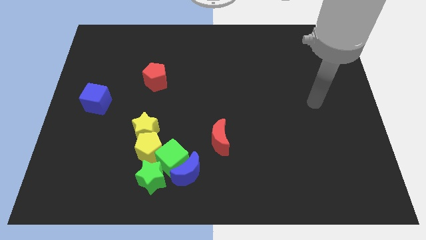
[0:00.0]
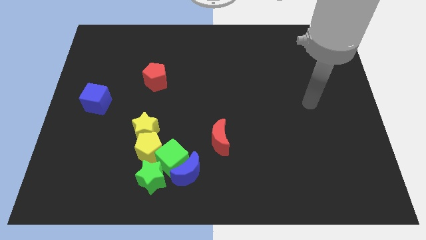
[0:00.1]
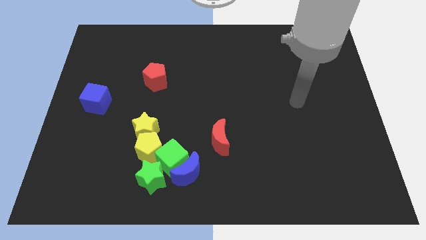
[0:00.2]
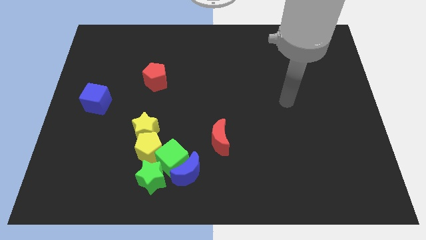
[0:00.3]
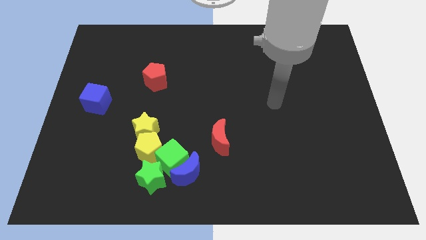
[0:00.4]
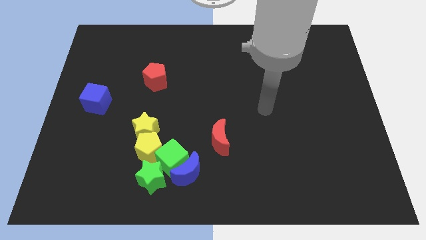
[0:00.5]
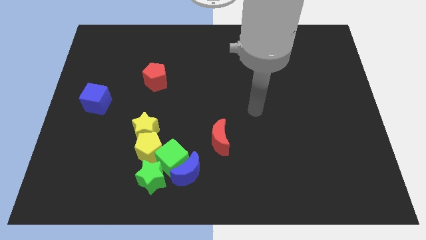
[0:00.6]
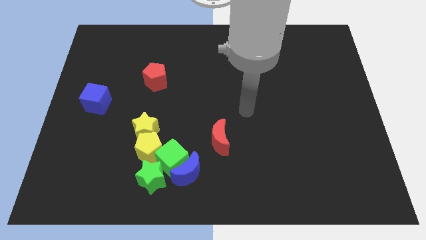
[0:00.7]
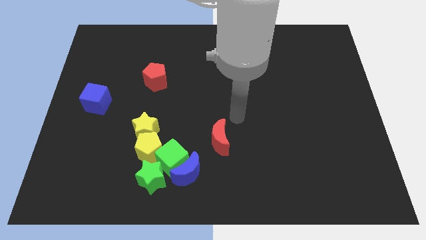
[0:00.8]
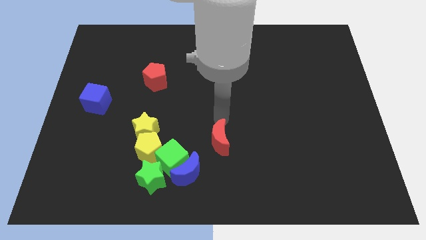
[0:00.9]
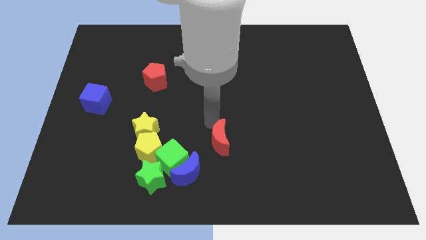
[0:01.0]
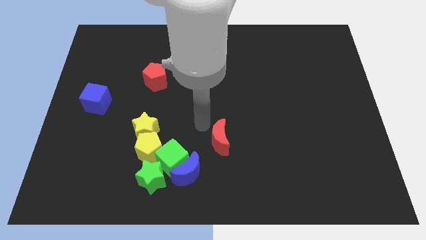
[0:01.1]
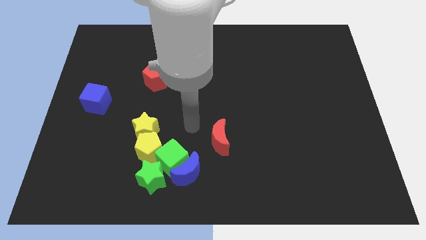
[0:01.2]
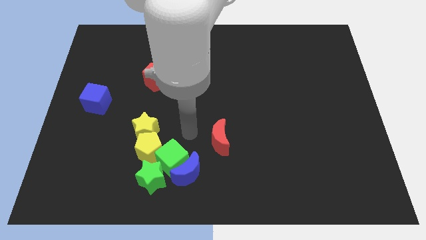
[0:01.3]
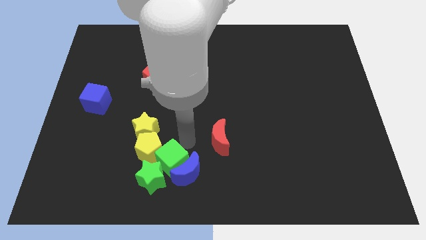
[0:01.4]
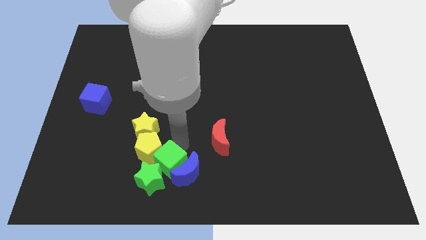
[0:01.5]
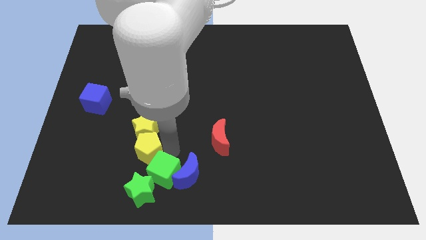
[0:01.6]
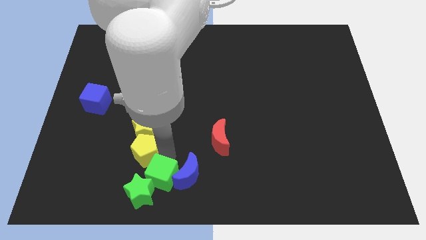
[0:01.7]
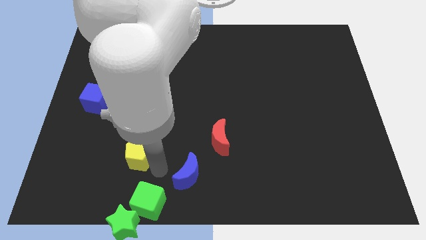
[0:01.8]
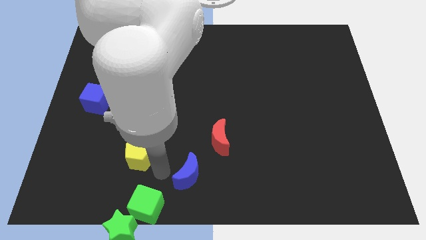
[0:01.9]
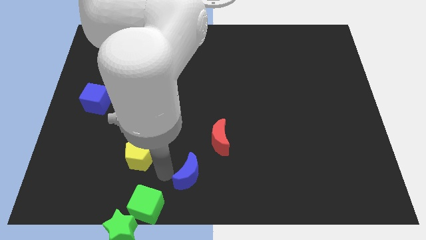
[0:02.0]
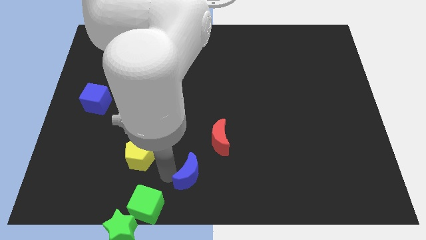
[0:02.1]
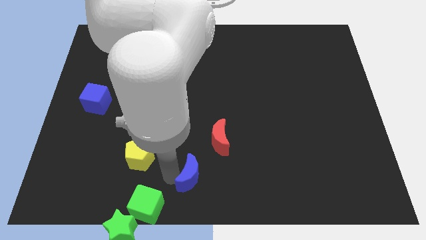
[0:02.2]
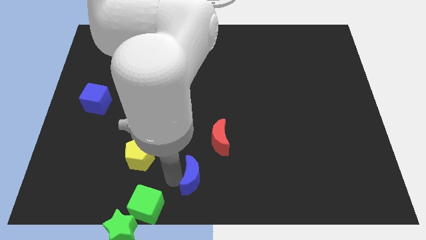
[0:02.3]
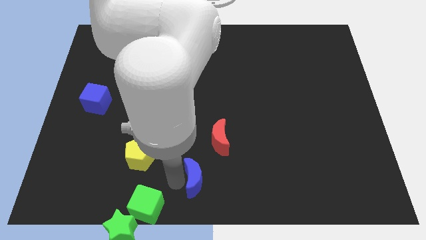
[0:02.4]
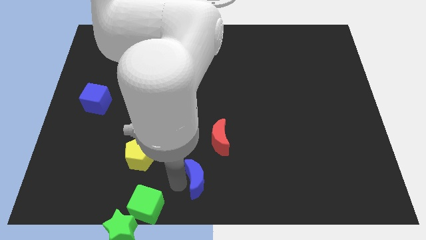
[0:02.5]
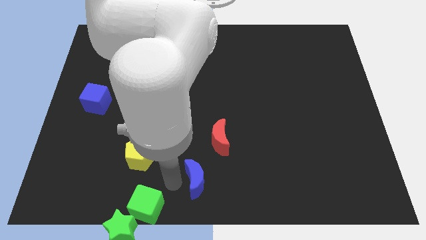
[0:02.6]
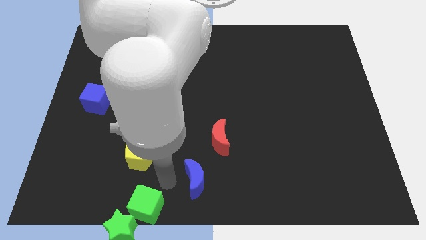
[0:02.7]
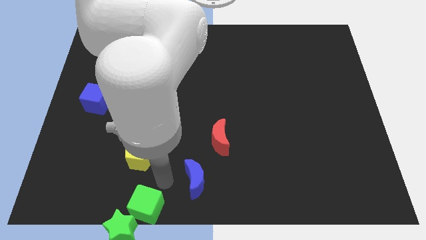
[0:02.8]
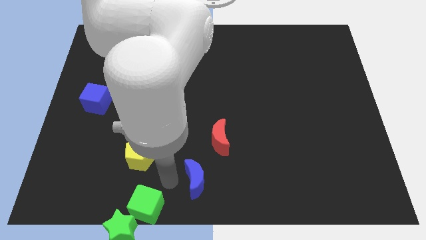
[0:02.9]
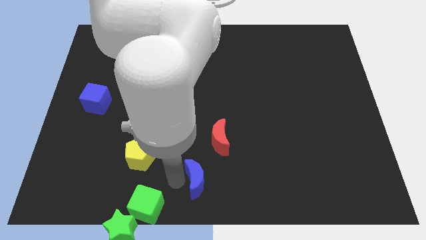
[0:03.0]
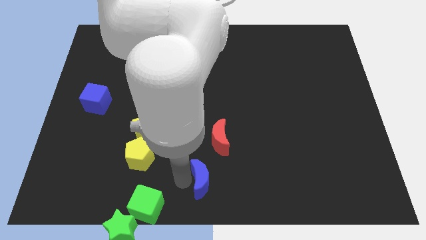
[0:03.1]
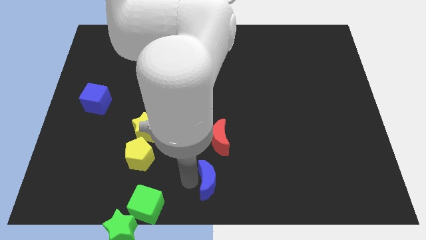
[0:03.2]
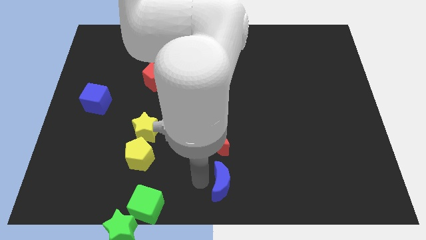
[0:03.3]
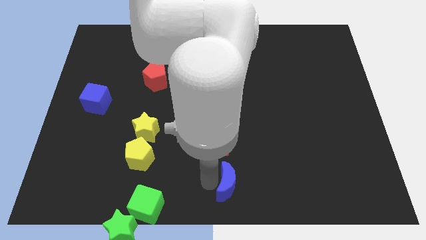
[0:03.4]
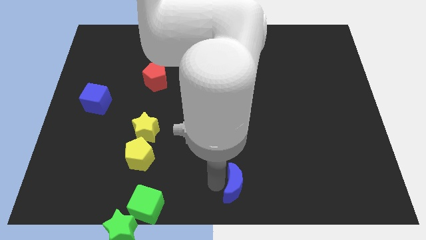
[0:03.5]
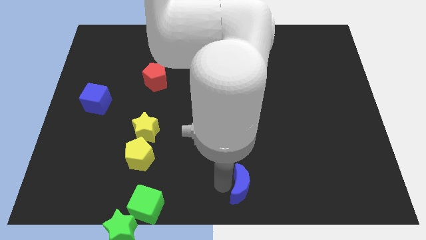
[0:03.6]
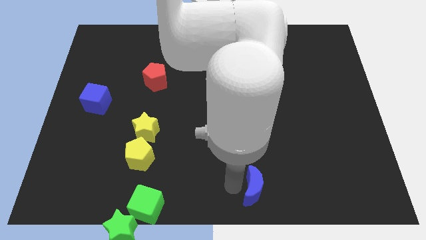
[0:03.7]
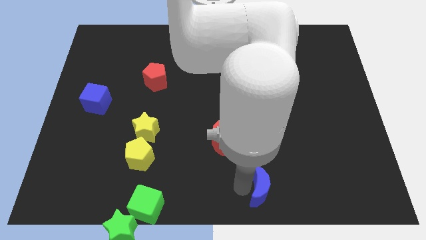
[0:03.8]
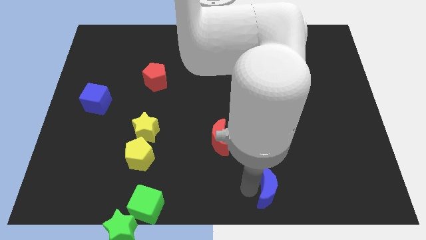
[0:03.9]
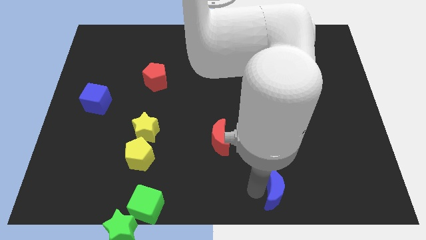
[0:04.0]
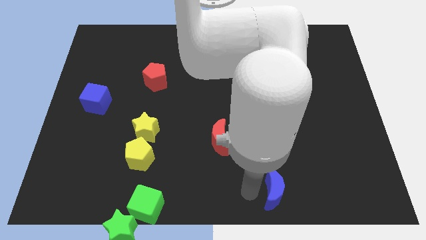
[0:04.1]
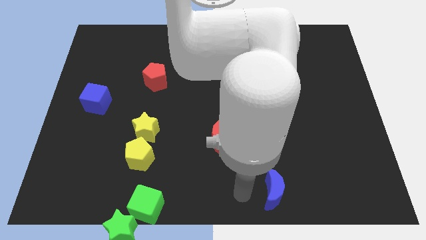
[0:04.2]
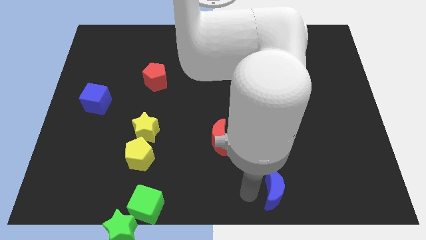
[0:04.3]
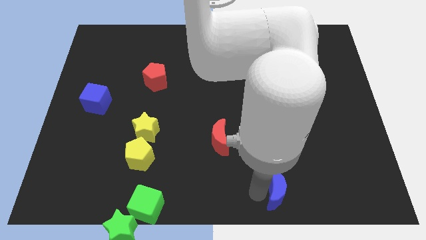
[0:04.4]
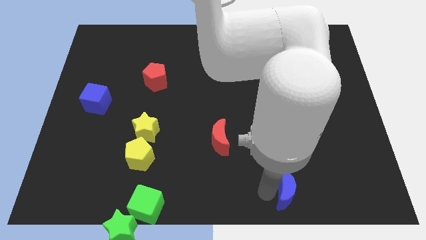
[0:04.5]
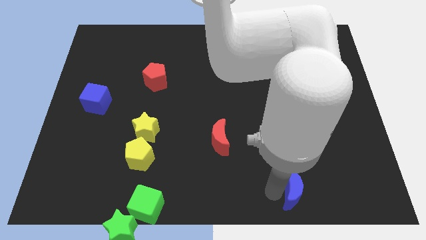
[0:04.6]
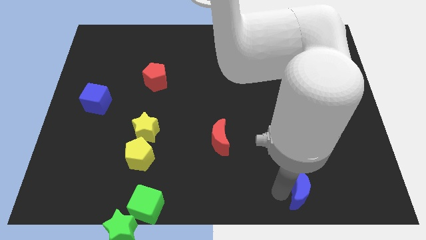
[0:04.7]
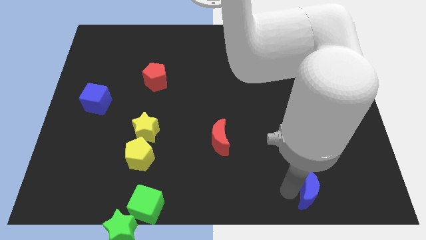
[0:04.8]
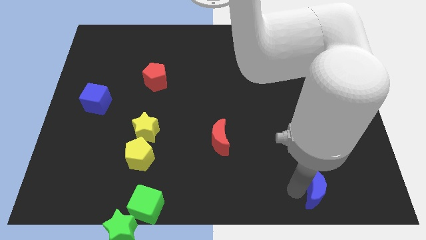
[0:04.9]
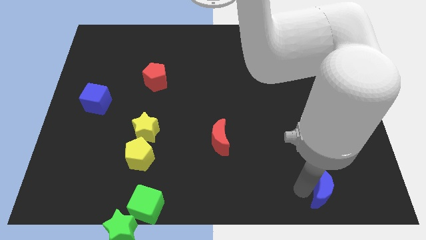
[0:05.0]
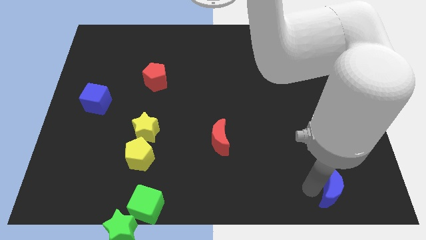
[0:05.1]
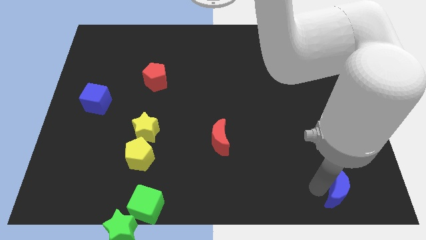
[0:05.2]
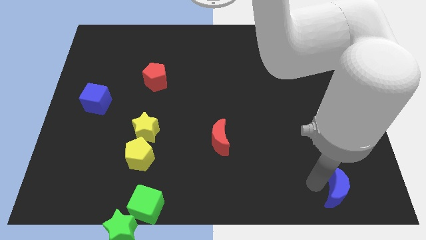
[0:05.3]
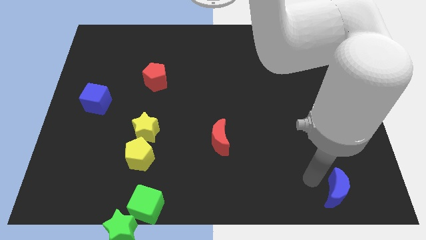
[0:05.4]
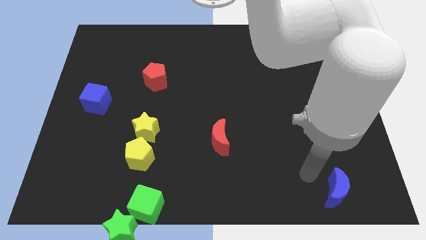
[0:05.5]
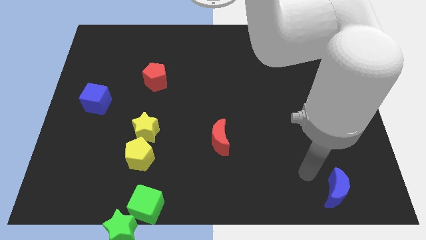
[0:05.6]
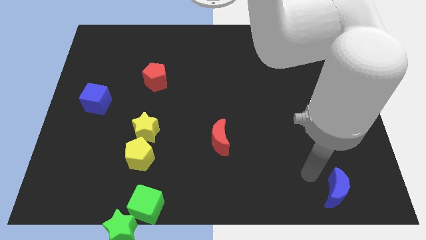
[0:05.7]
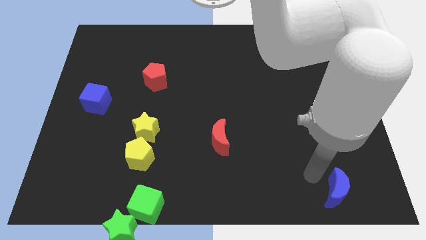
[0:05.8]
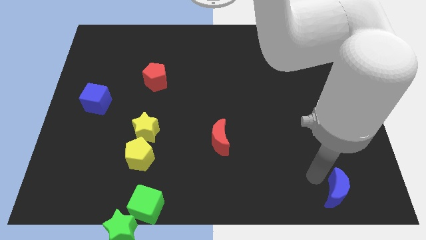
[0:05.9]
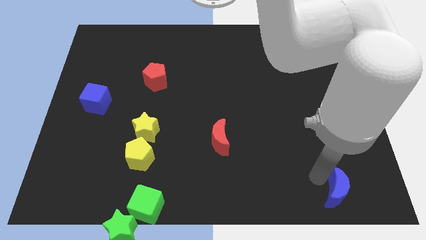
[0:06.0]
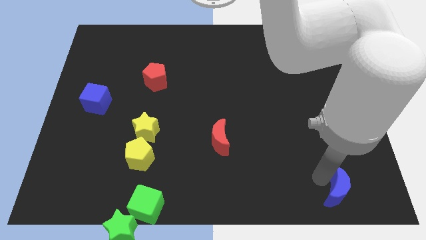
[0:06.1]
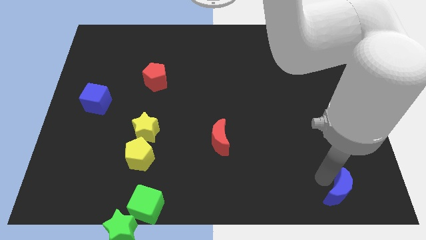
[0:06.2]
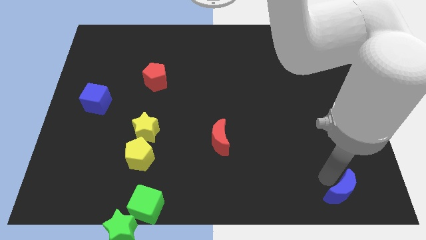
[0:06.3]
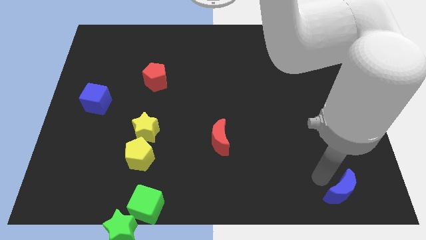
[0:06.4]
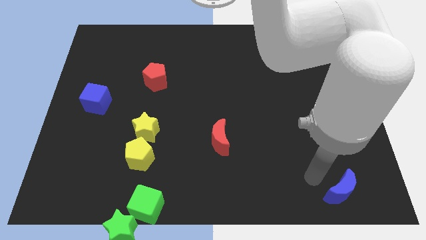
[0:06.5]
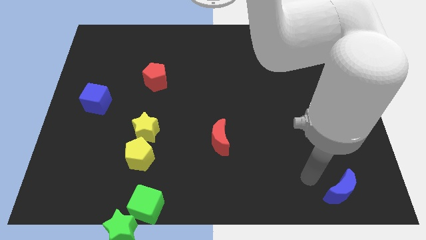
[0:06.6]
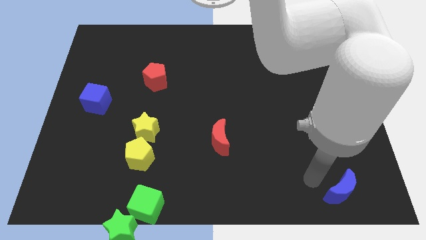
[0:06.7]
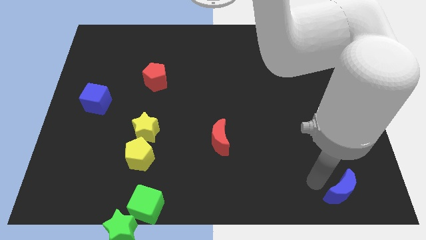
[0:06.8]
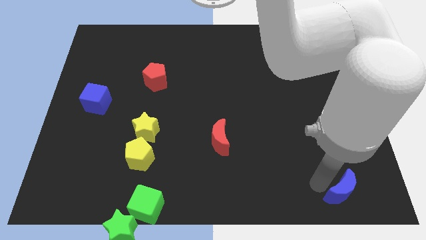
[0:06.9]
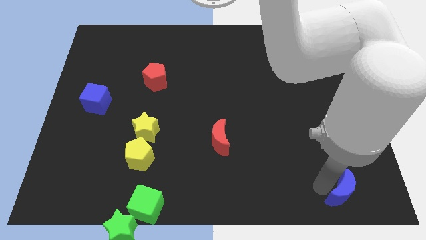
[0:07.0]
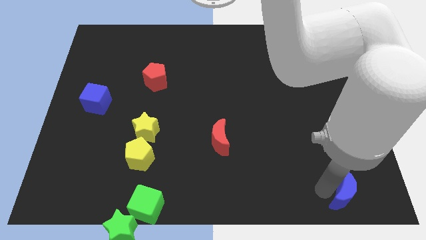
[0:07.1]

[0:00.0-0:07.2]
push the blue moon to the bottom right of the board

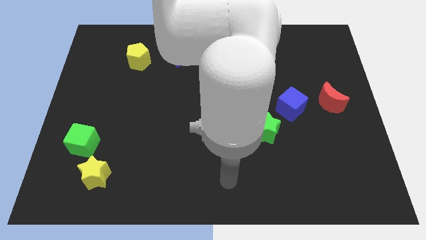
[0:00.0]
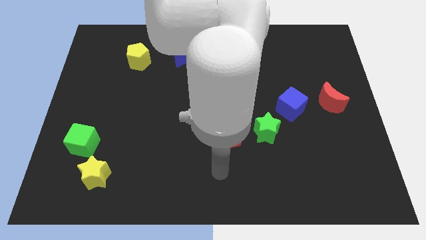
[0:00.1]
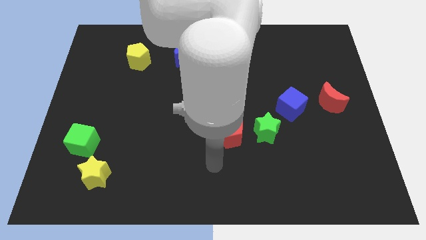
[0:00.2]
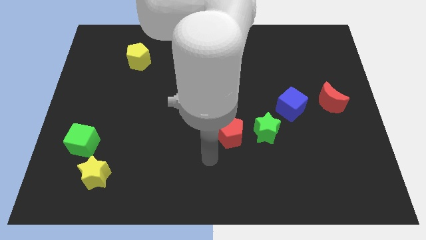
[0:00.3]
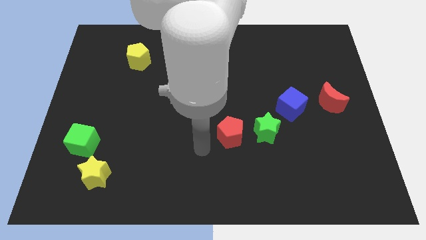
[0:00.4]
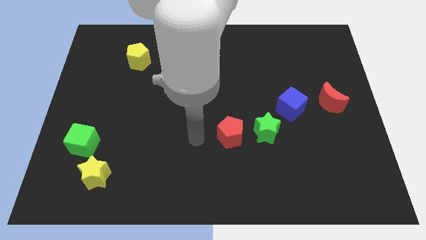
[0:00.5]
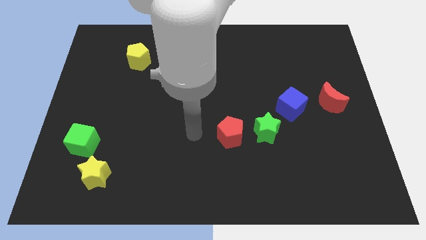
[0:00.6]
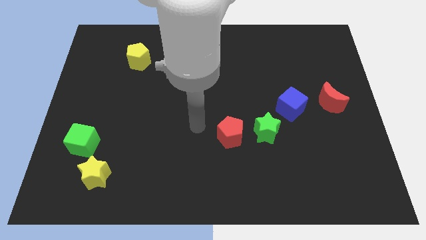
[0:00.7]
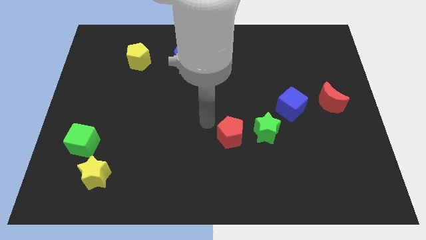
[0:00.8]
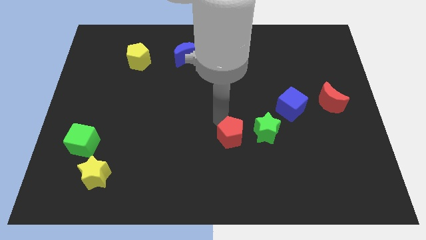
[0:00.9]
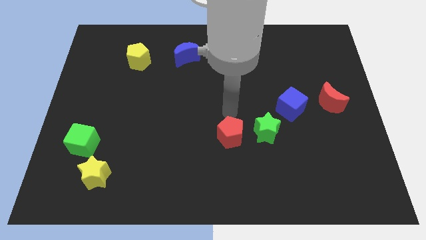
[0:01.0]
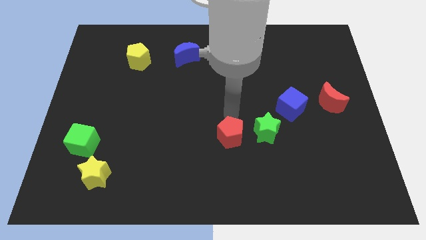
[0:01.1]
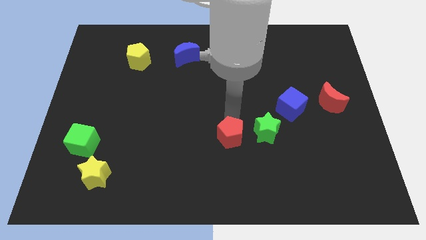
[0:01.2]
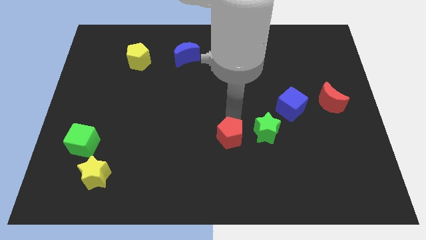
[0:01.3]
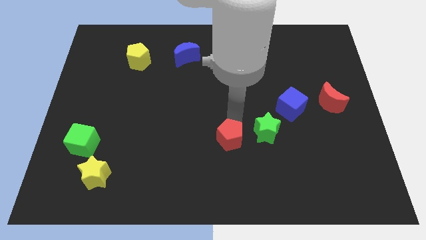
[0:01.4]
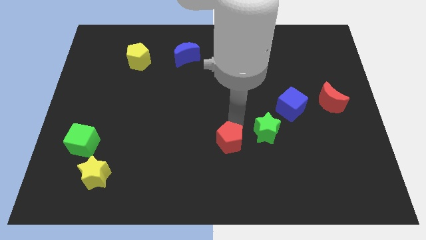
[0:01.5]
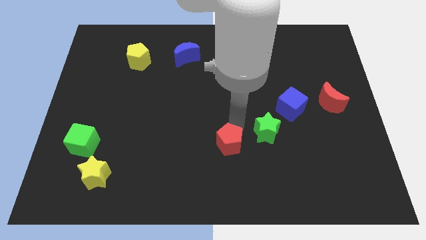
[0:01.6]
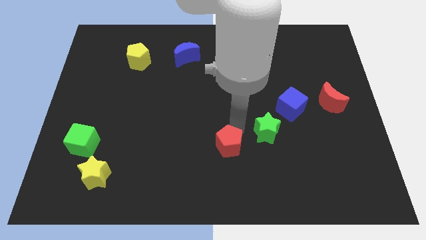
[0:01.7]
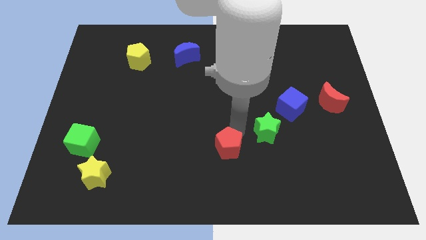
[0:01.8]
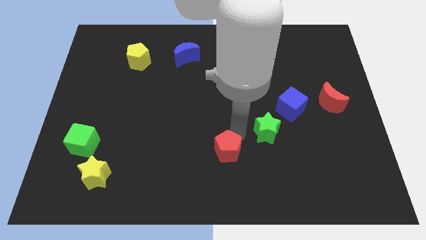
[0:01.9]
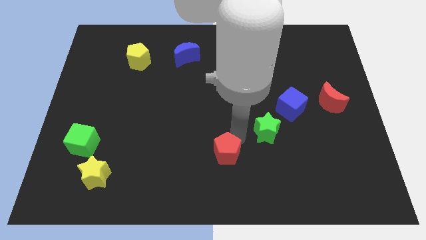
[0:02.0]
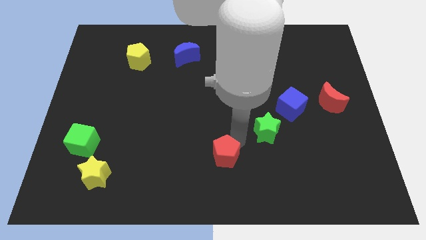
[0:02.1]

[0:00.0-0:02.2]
slide the red pentagon to the bottom
